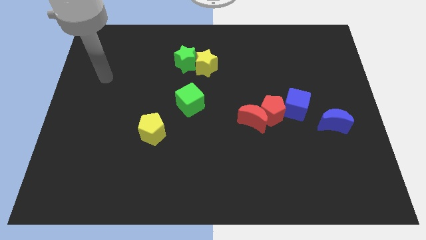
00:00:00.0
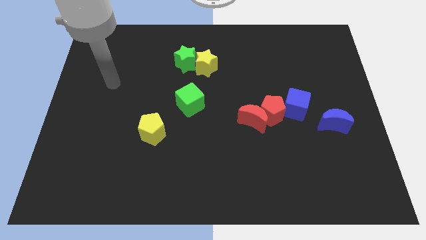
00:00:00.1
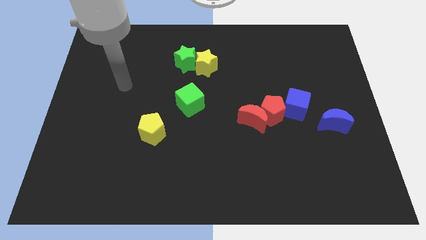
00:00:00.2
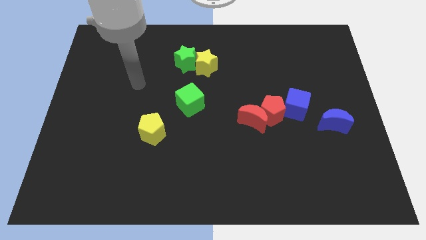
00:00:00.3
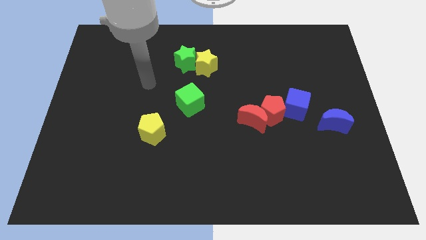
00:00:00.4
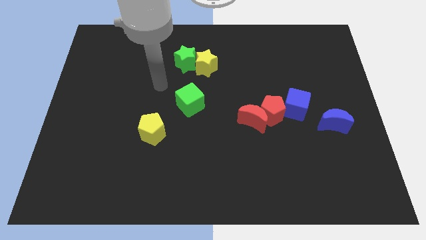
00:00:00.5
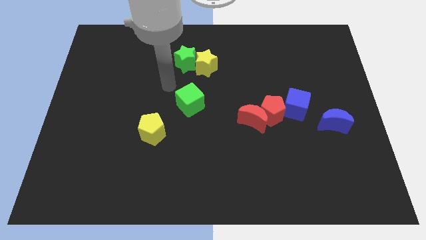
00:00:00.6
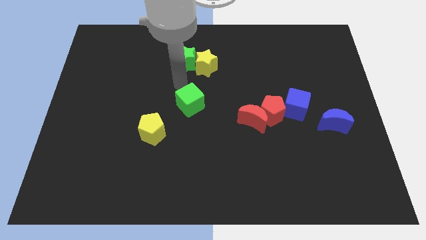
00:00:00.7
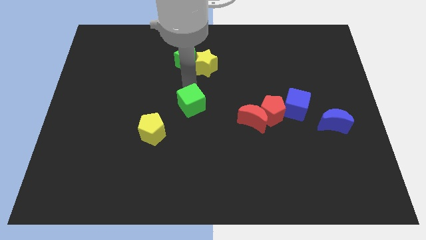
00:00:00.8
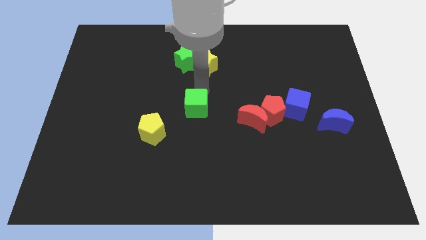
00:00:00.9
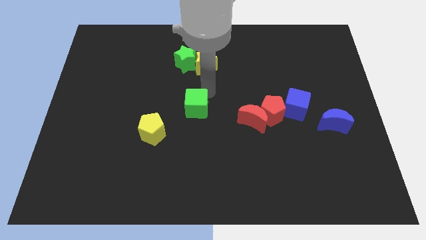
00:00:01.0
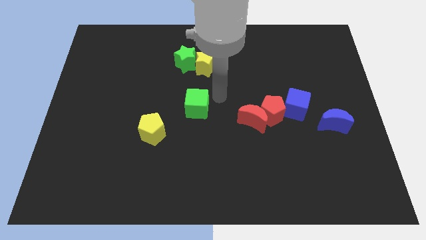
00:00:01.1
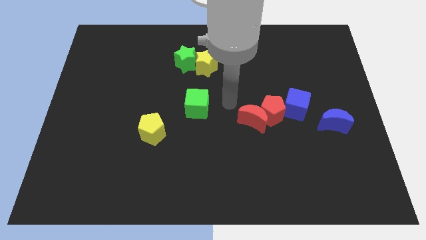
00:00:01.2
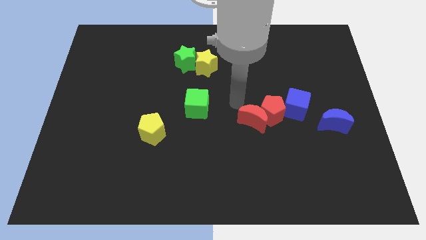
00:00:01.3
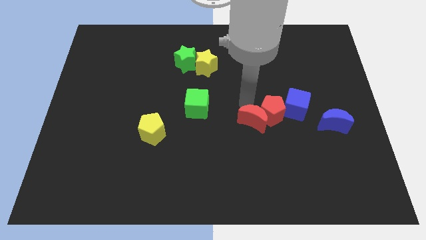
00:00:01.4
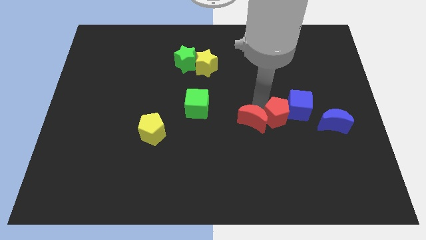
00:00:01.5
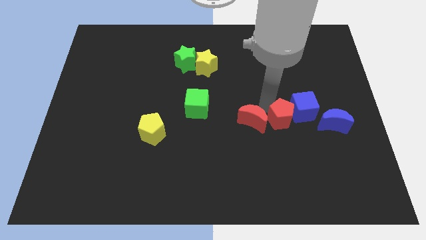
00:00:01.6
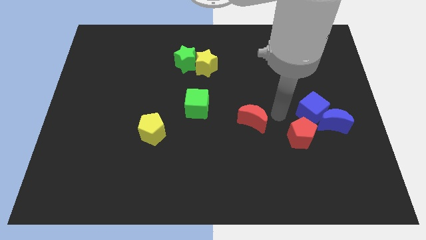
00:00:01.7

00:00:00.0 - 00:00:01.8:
pull the red moon apart from the red pentagon

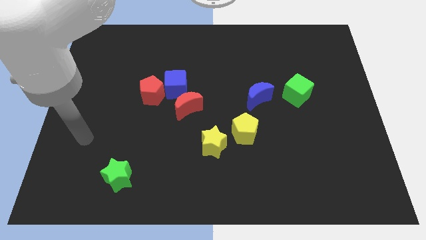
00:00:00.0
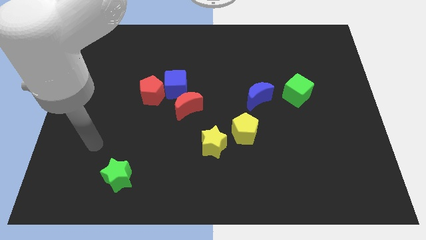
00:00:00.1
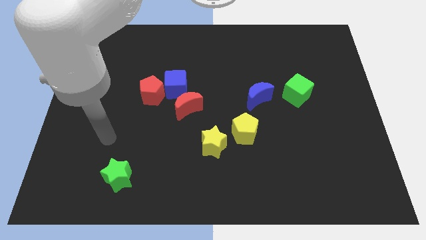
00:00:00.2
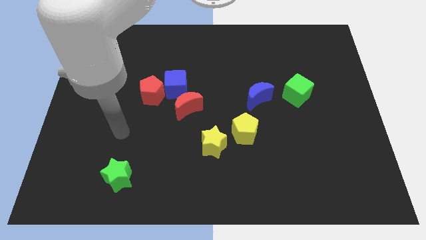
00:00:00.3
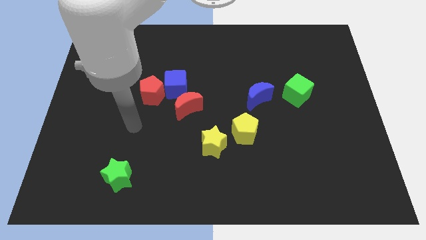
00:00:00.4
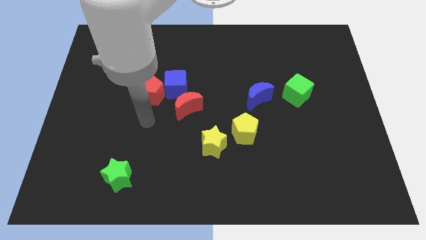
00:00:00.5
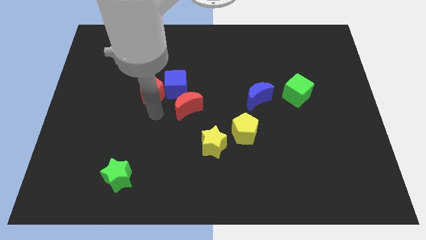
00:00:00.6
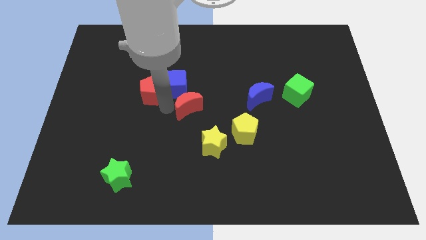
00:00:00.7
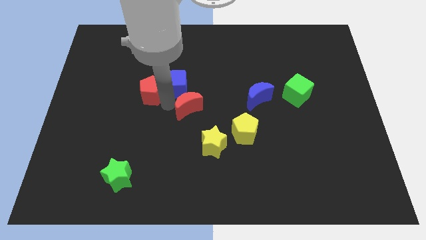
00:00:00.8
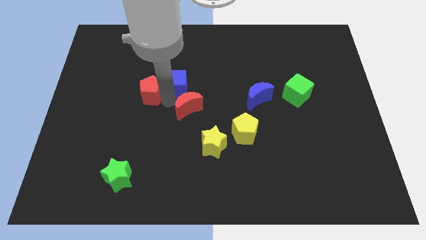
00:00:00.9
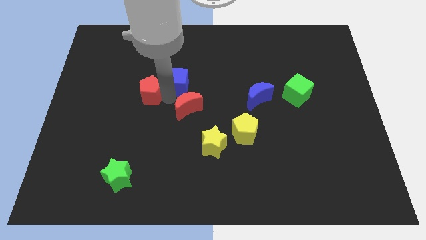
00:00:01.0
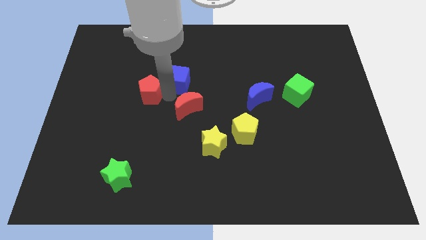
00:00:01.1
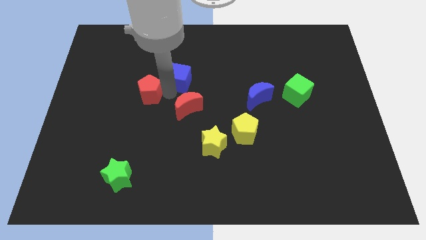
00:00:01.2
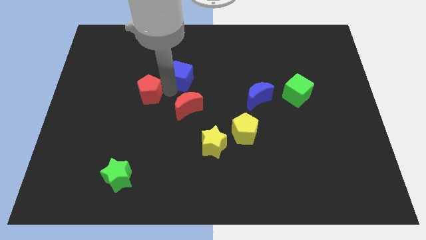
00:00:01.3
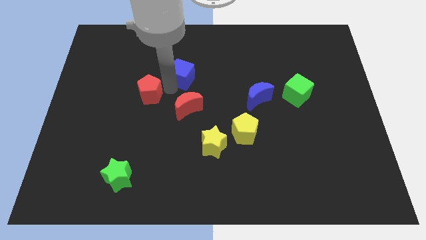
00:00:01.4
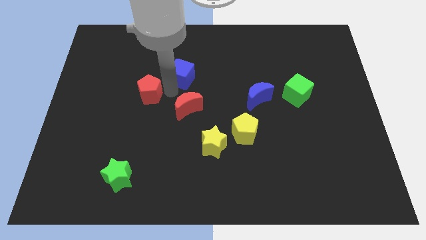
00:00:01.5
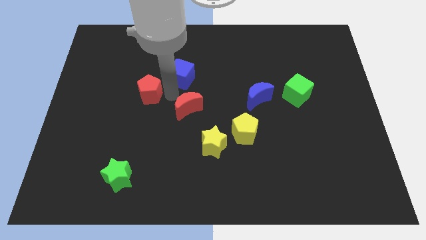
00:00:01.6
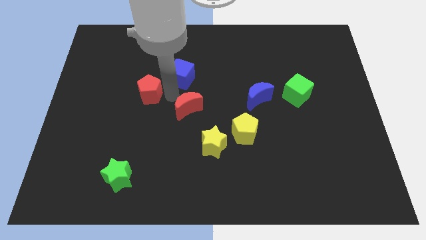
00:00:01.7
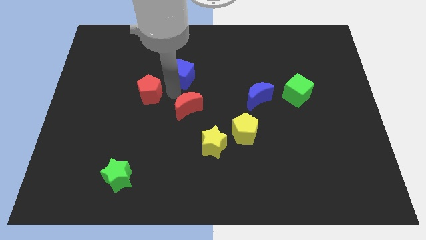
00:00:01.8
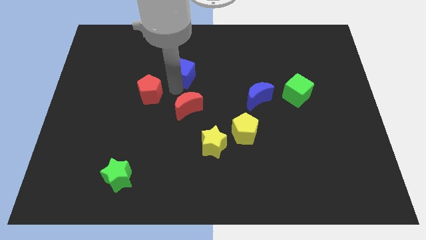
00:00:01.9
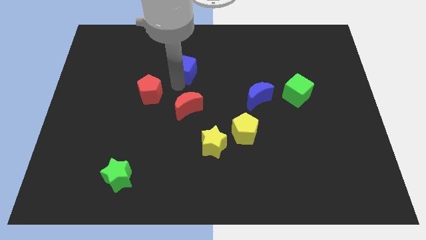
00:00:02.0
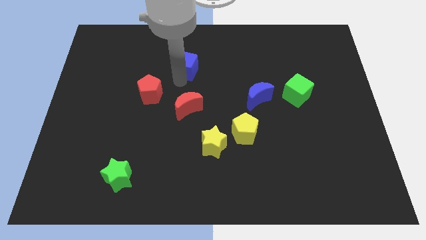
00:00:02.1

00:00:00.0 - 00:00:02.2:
separate the blue cube from the red pentagon and red moon

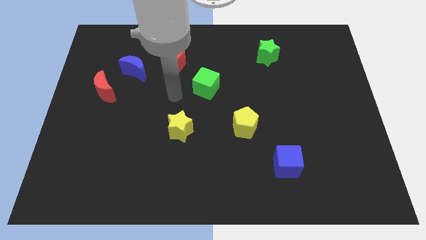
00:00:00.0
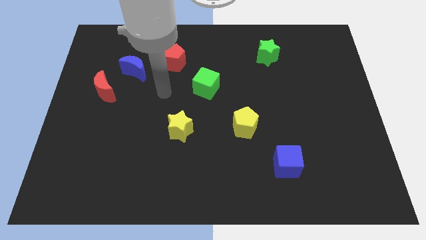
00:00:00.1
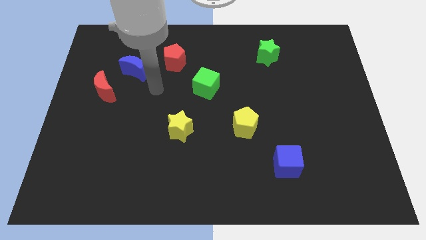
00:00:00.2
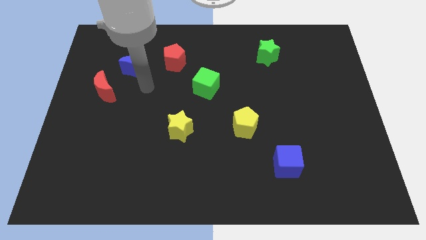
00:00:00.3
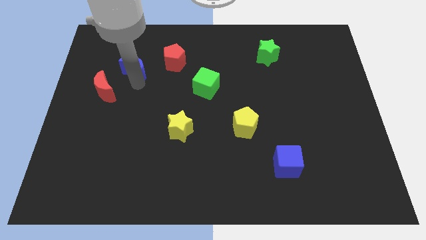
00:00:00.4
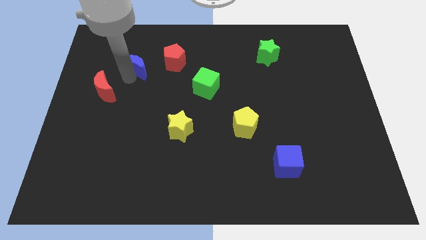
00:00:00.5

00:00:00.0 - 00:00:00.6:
move the red moon away from the blue moon

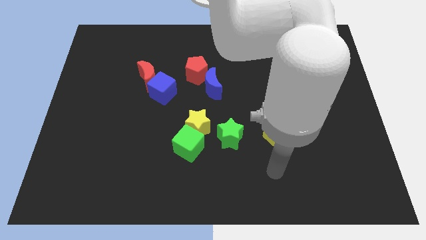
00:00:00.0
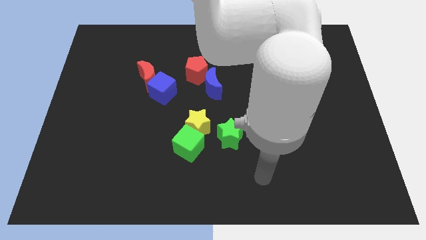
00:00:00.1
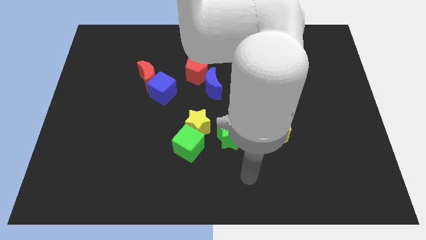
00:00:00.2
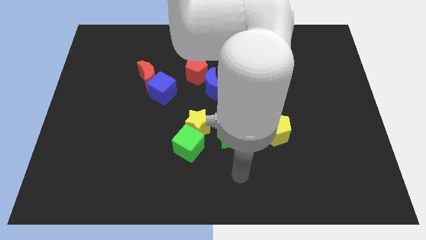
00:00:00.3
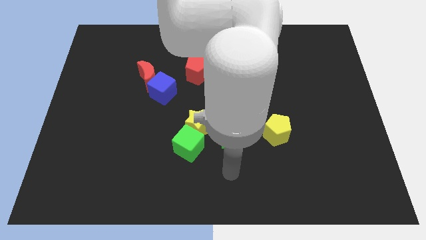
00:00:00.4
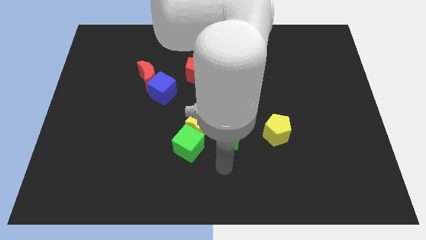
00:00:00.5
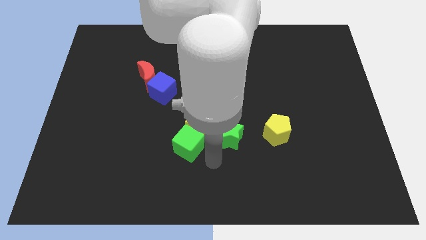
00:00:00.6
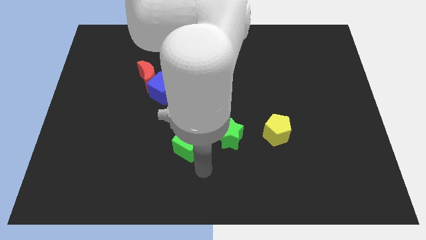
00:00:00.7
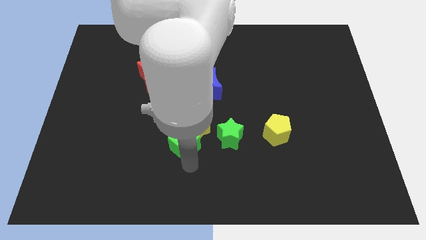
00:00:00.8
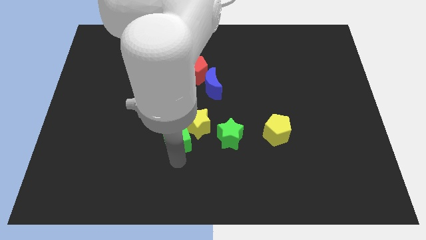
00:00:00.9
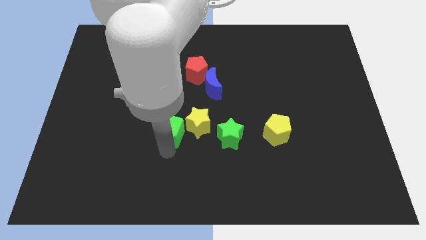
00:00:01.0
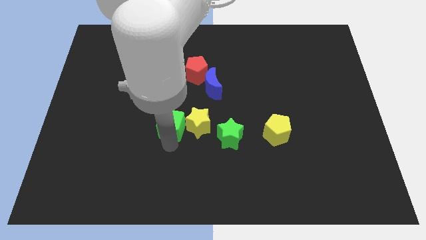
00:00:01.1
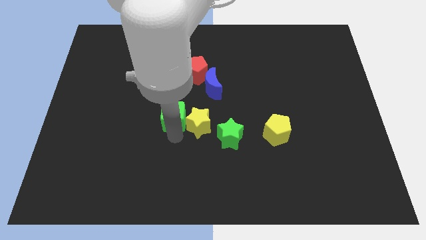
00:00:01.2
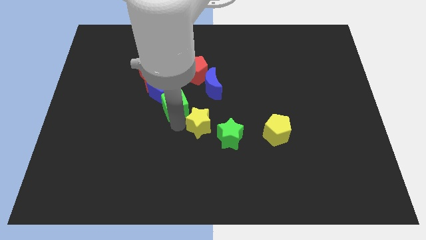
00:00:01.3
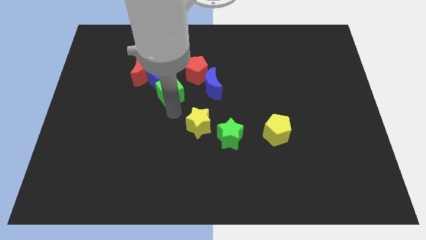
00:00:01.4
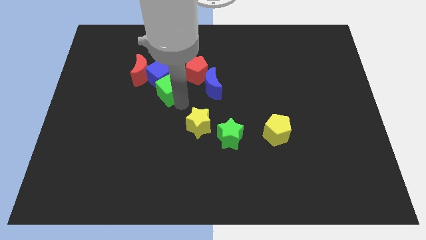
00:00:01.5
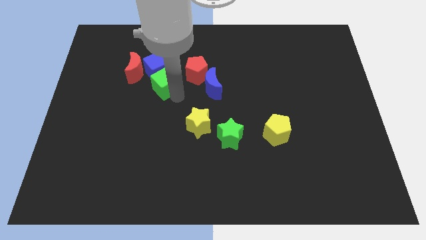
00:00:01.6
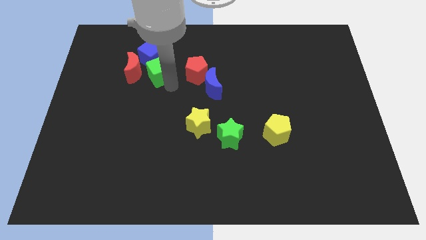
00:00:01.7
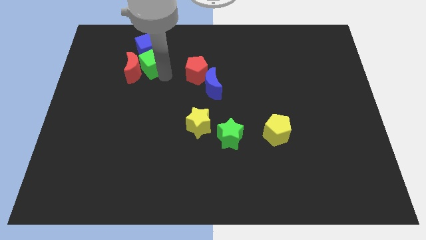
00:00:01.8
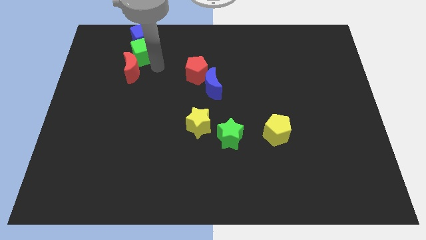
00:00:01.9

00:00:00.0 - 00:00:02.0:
move the red moon away from the blue cube

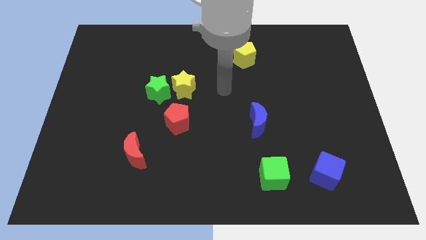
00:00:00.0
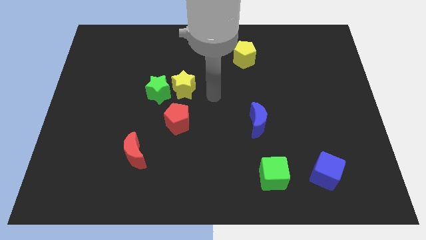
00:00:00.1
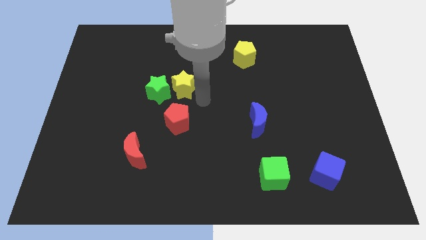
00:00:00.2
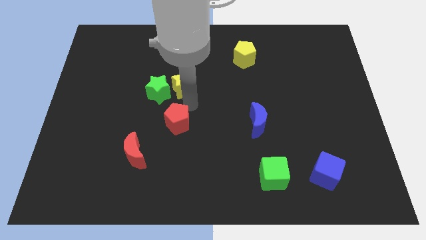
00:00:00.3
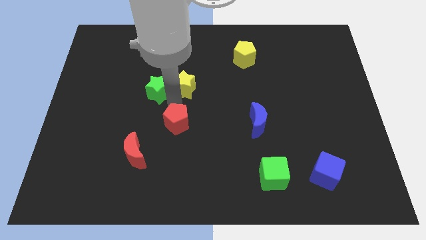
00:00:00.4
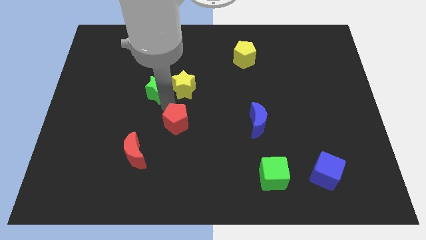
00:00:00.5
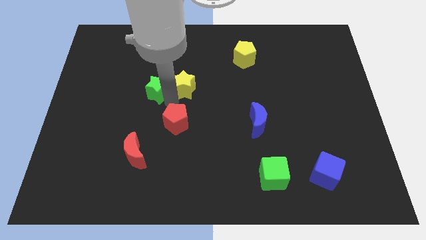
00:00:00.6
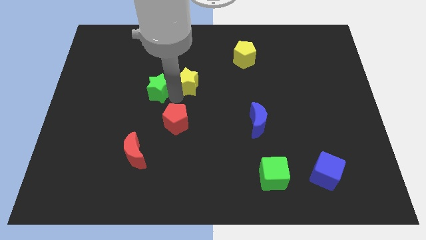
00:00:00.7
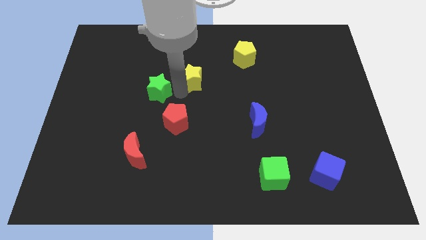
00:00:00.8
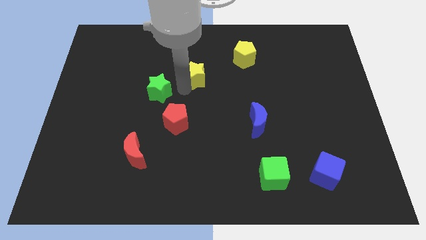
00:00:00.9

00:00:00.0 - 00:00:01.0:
separate the yellow star from the green star and red pentagon

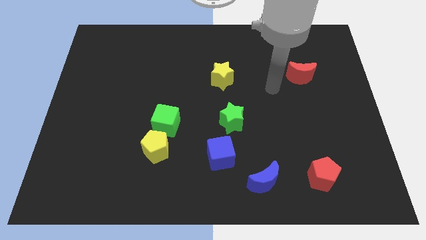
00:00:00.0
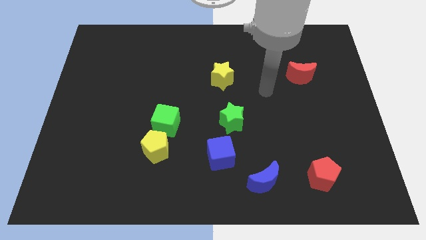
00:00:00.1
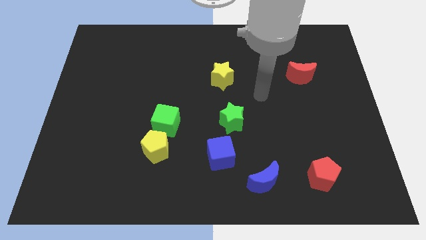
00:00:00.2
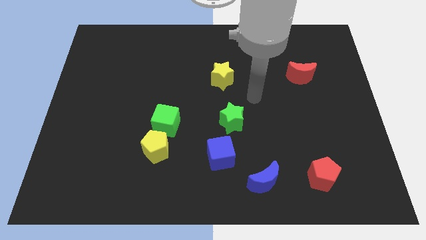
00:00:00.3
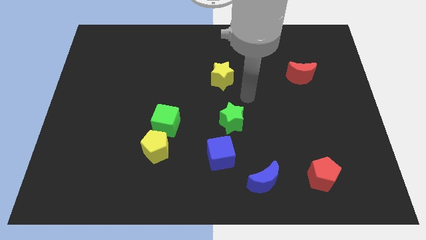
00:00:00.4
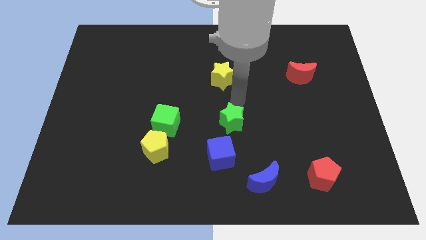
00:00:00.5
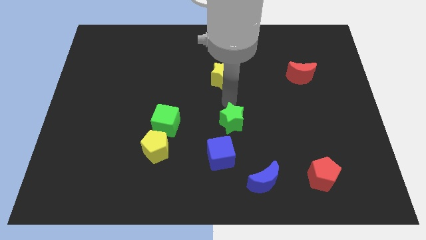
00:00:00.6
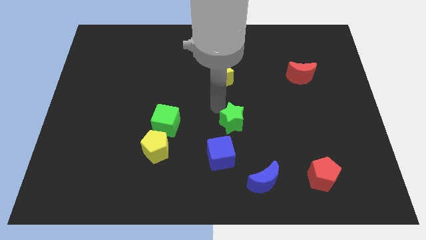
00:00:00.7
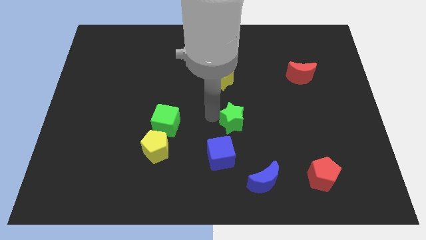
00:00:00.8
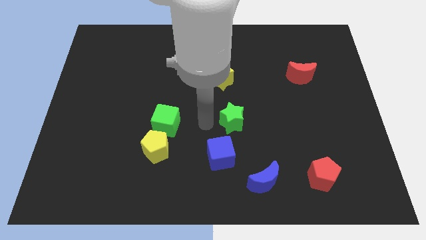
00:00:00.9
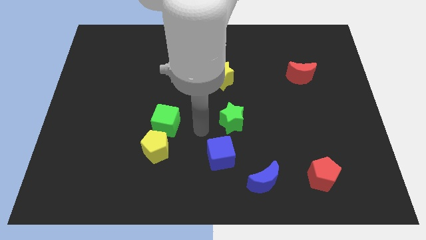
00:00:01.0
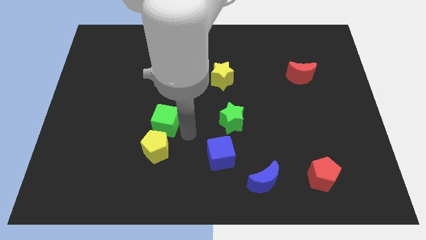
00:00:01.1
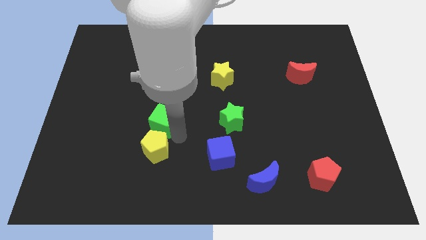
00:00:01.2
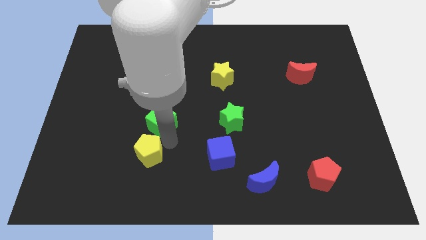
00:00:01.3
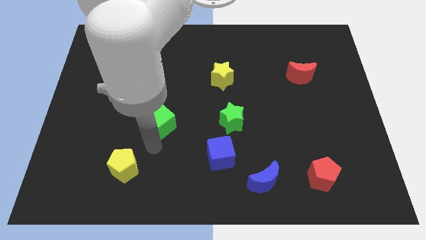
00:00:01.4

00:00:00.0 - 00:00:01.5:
pull the green cube apart from the yellow pentagon

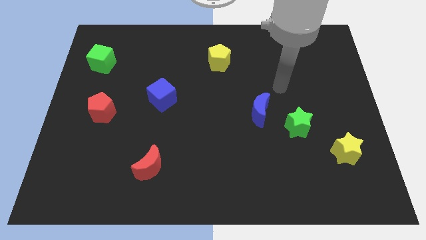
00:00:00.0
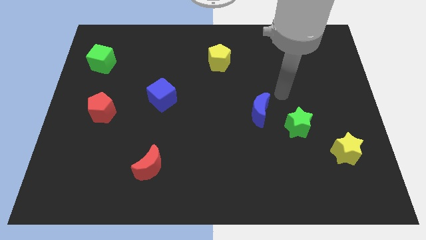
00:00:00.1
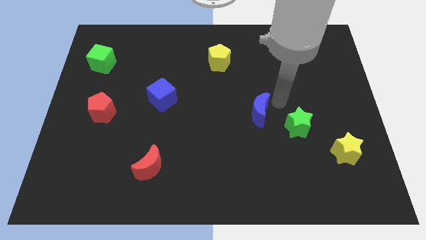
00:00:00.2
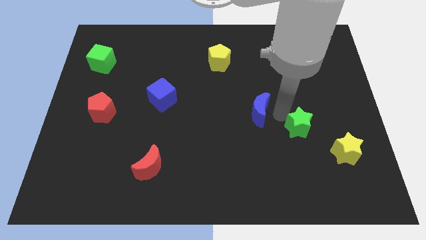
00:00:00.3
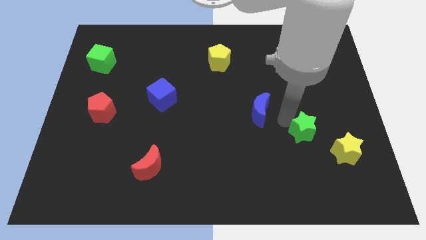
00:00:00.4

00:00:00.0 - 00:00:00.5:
move the blue moon away from the green star
